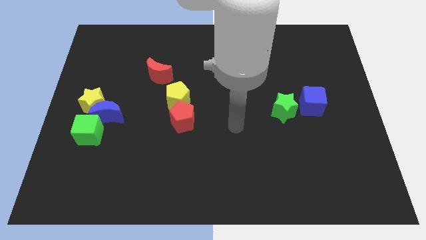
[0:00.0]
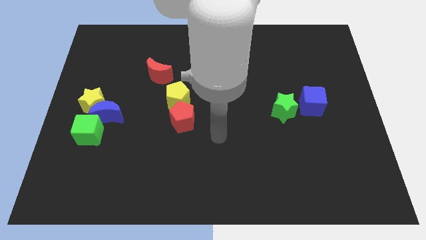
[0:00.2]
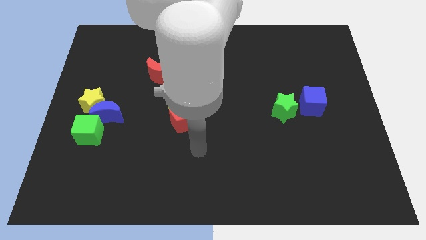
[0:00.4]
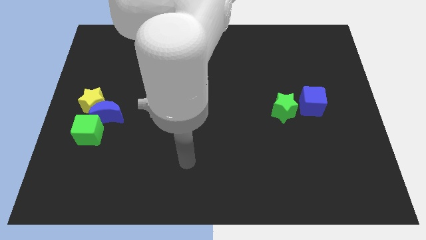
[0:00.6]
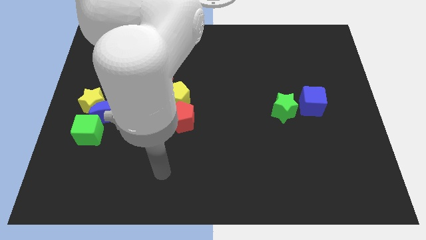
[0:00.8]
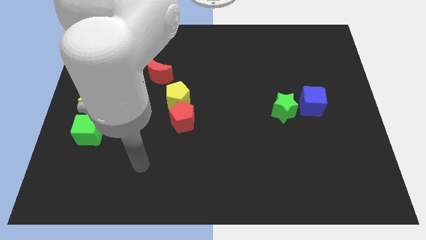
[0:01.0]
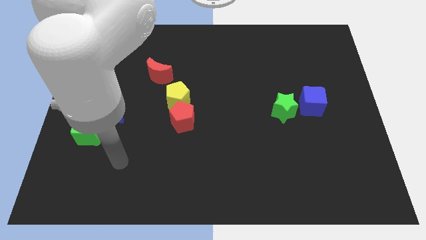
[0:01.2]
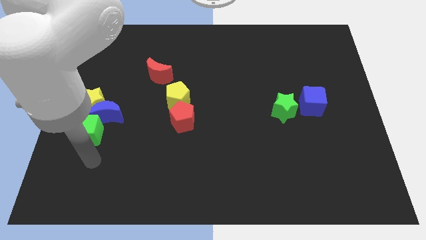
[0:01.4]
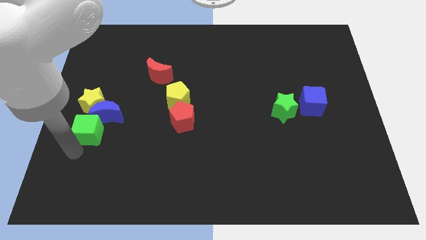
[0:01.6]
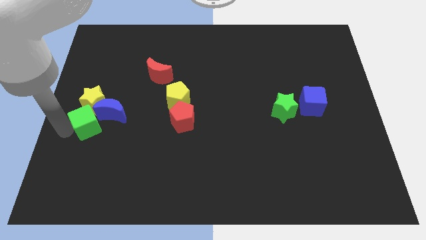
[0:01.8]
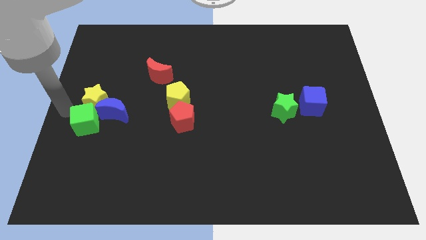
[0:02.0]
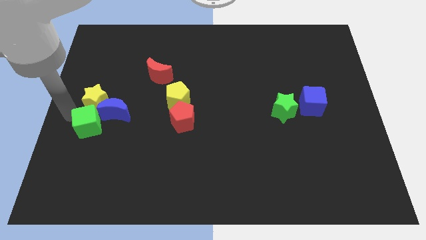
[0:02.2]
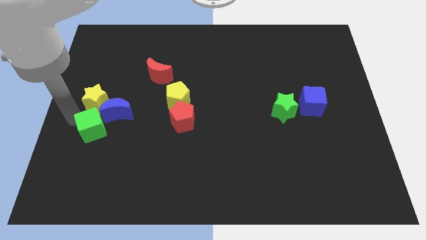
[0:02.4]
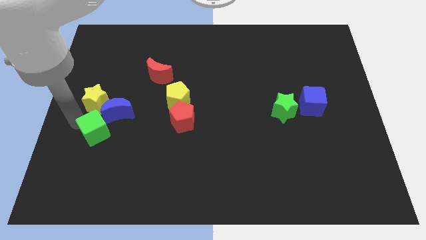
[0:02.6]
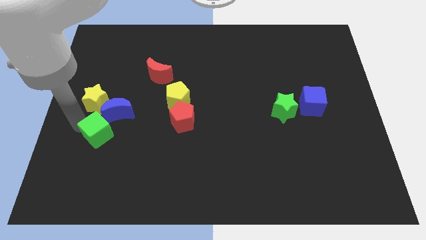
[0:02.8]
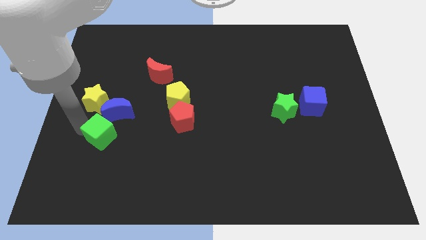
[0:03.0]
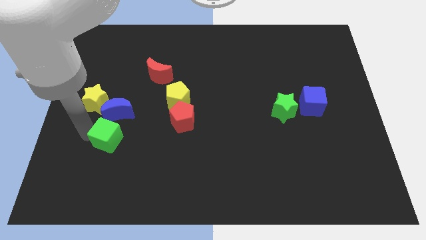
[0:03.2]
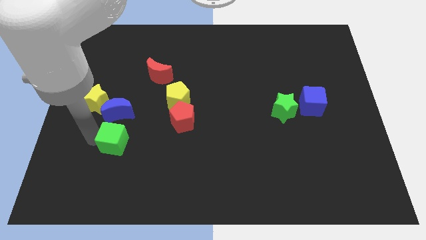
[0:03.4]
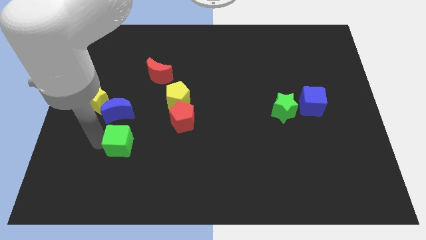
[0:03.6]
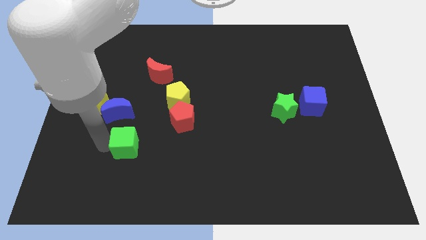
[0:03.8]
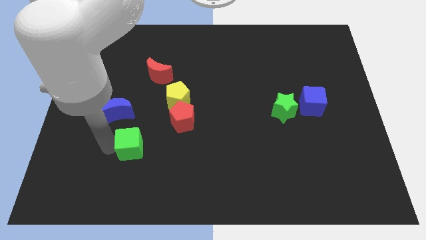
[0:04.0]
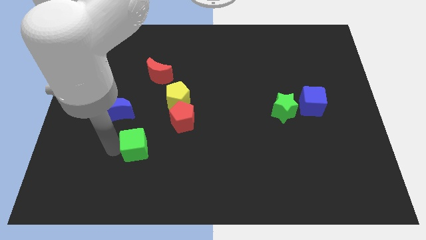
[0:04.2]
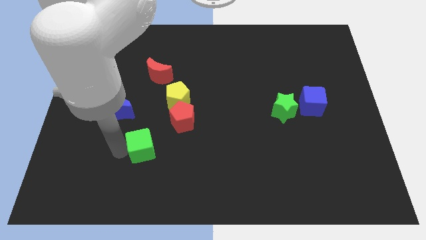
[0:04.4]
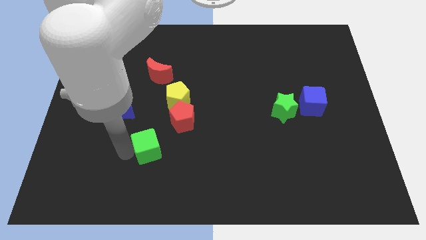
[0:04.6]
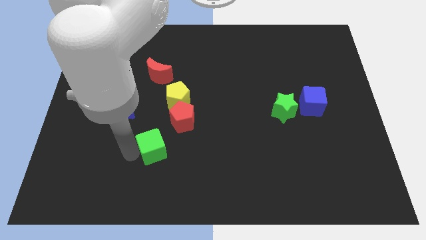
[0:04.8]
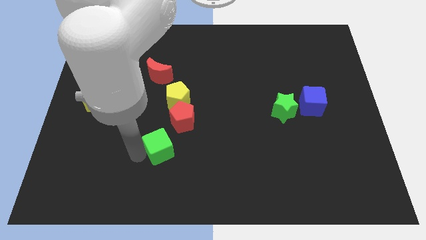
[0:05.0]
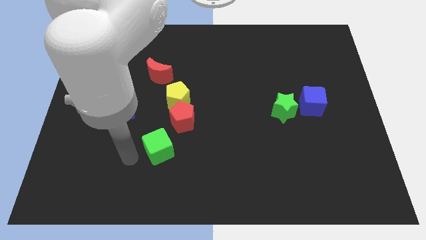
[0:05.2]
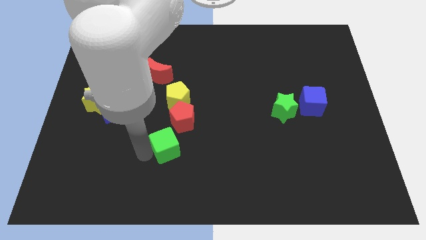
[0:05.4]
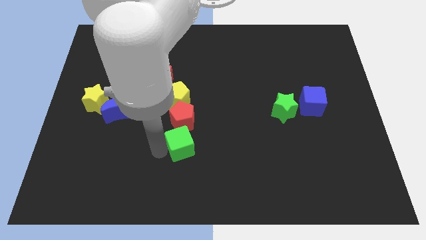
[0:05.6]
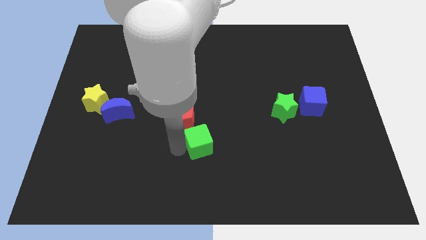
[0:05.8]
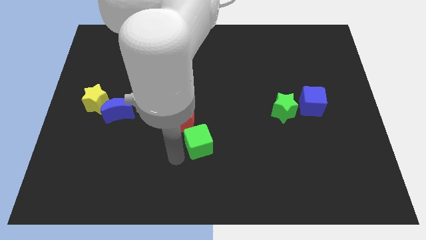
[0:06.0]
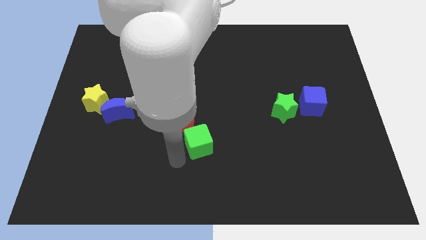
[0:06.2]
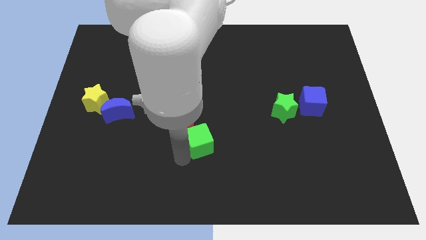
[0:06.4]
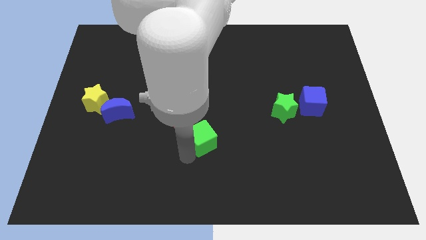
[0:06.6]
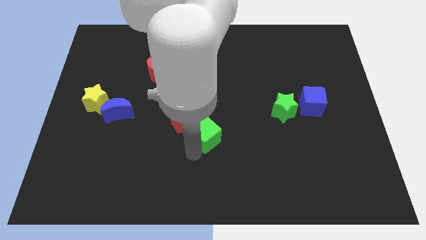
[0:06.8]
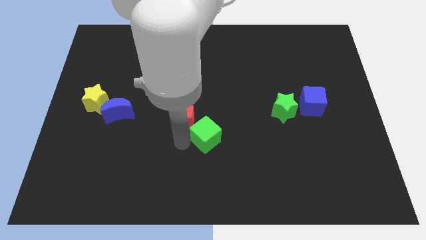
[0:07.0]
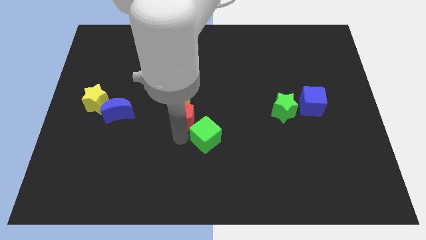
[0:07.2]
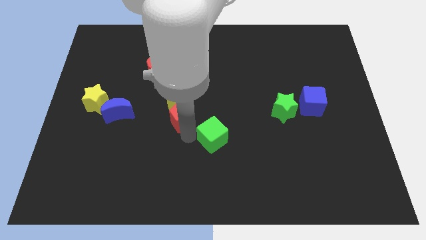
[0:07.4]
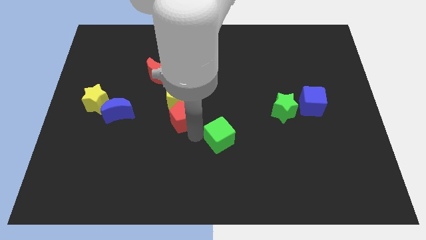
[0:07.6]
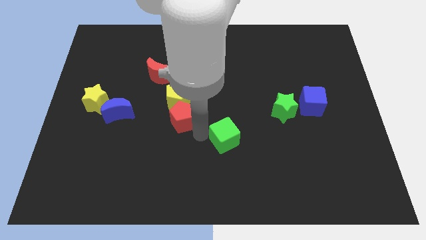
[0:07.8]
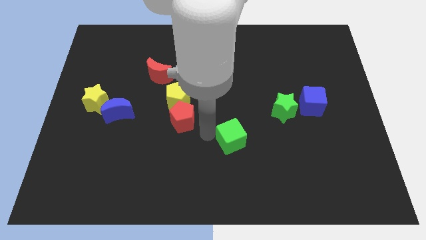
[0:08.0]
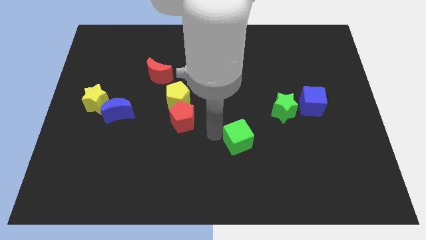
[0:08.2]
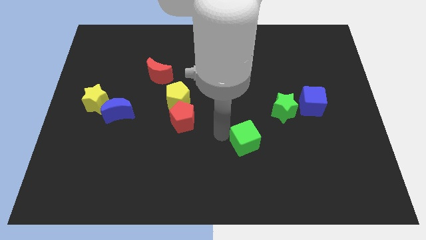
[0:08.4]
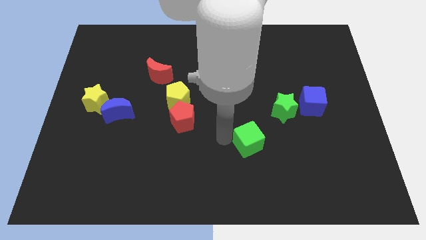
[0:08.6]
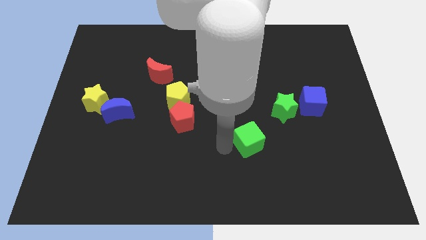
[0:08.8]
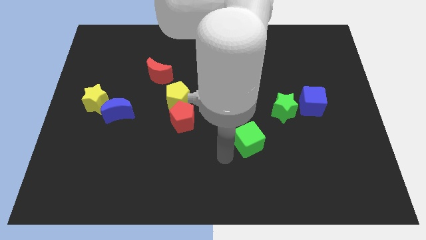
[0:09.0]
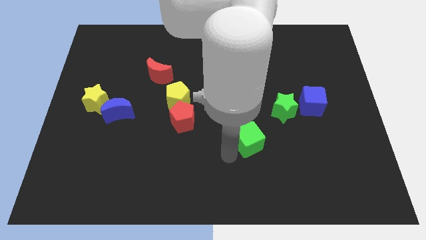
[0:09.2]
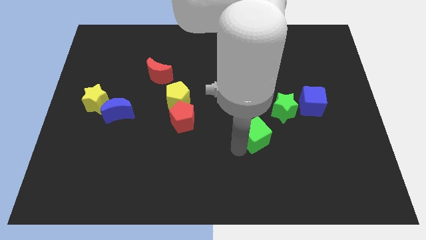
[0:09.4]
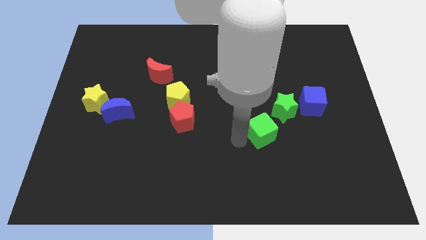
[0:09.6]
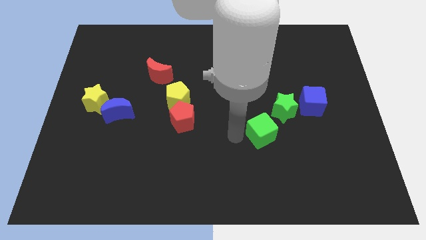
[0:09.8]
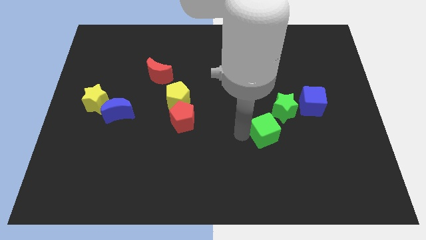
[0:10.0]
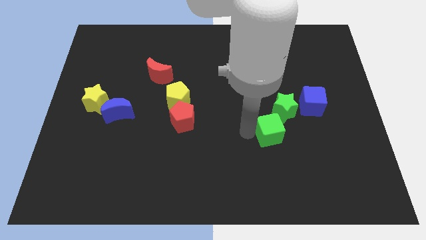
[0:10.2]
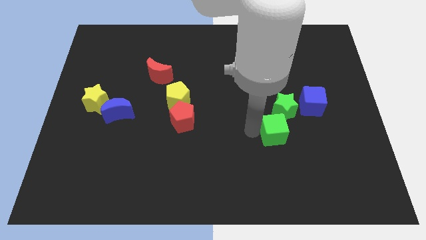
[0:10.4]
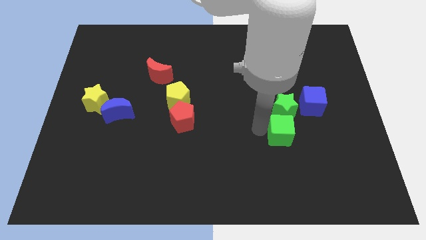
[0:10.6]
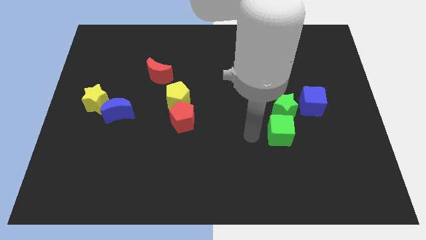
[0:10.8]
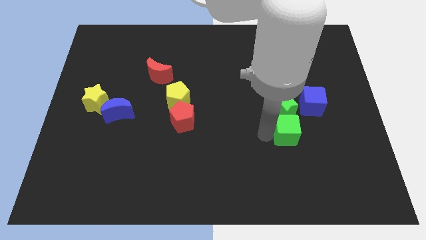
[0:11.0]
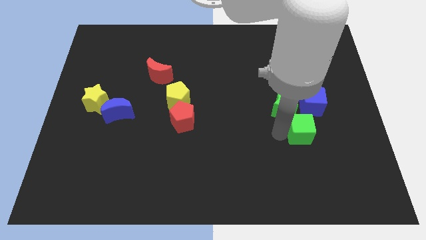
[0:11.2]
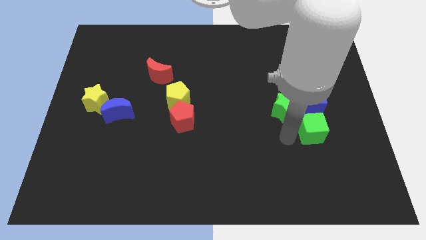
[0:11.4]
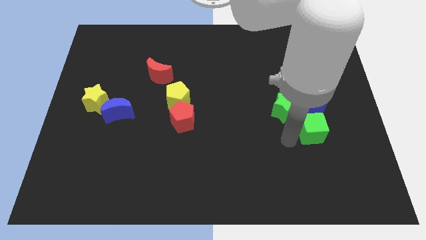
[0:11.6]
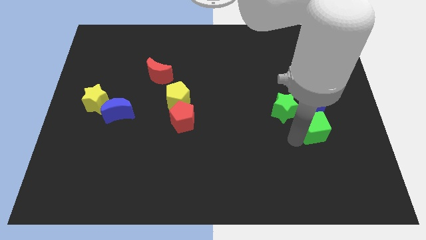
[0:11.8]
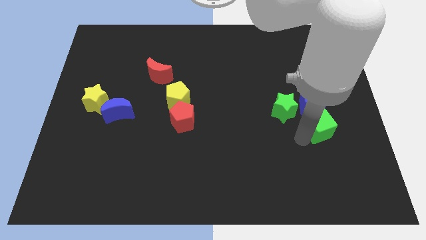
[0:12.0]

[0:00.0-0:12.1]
put the green cube to the bottom right side of the blue cube

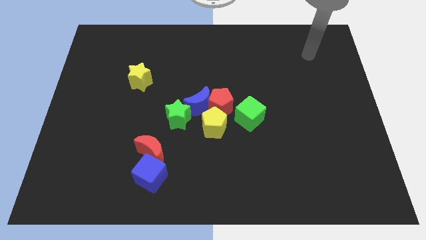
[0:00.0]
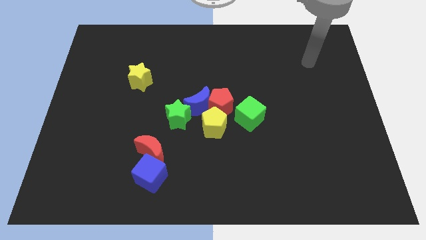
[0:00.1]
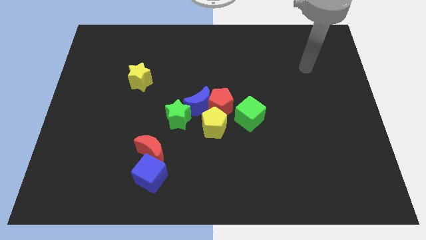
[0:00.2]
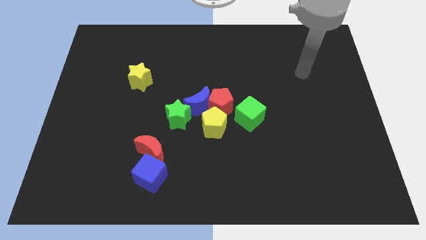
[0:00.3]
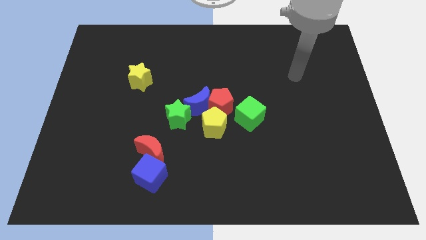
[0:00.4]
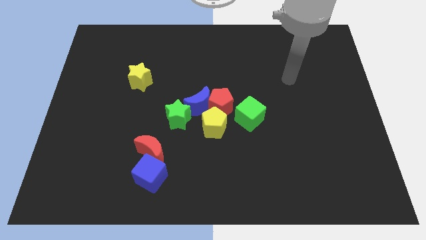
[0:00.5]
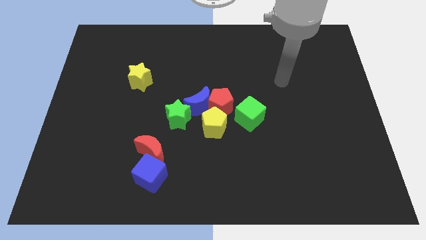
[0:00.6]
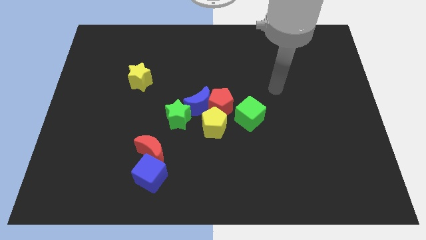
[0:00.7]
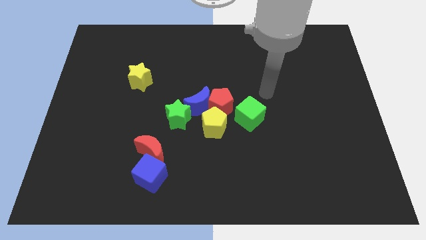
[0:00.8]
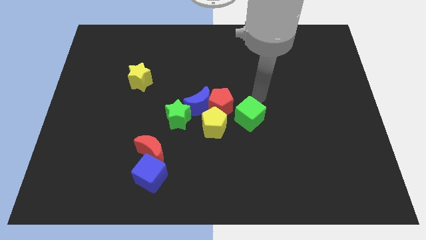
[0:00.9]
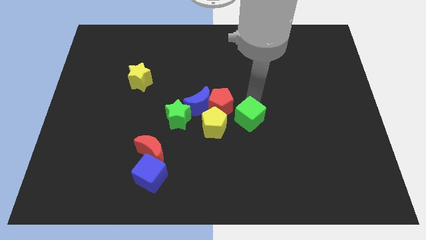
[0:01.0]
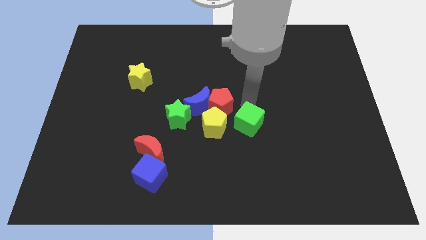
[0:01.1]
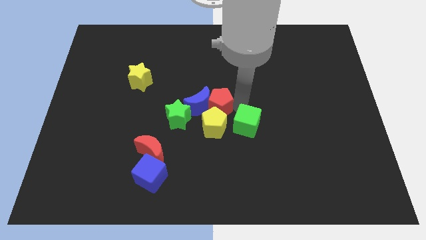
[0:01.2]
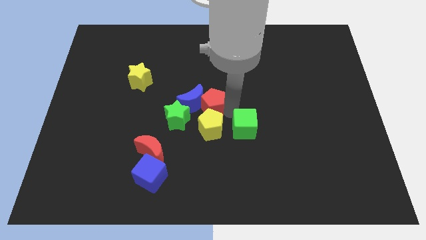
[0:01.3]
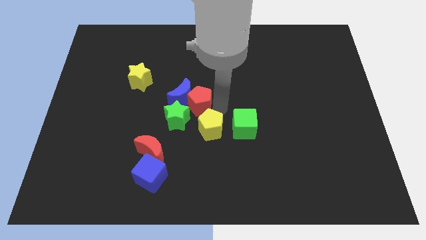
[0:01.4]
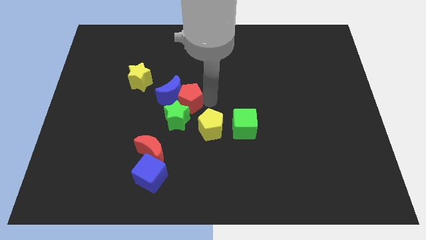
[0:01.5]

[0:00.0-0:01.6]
push the blue moon to the bottom right of the yellow star
